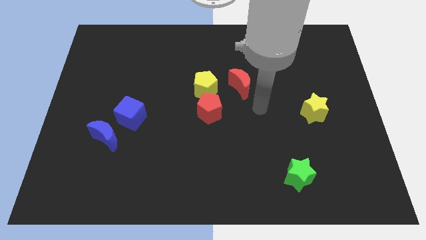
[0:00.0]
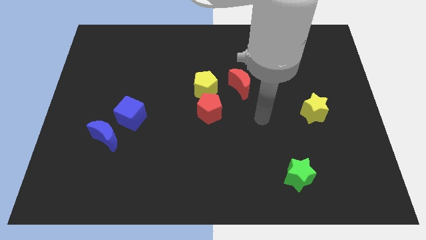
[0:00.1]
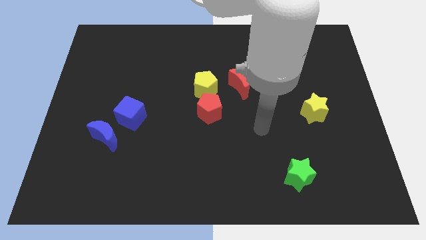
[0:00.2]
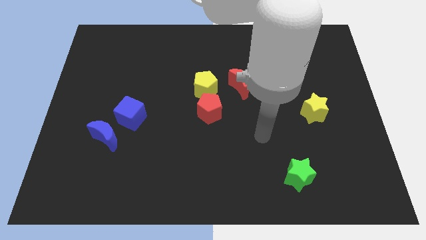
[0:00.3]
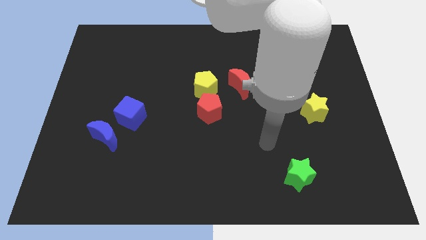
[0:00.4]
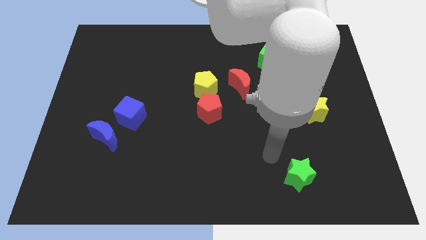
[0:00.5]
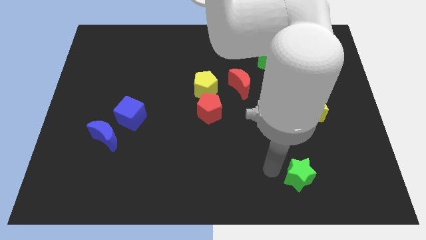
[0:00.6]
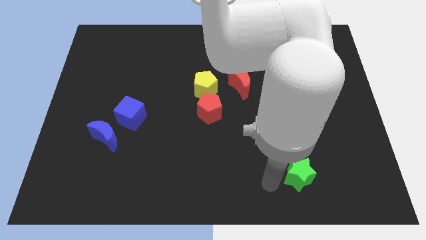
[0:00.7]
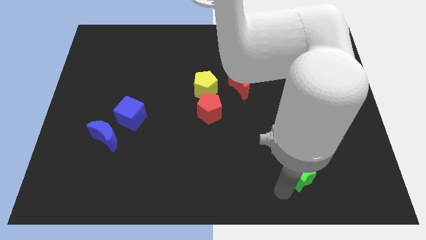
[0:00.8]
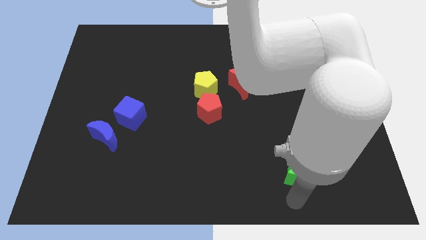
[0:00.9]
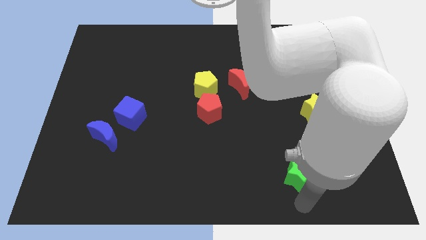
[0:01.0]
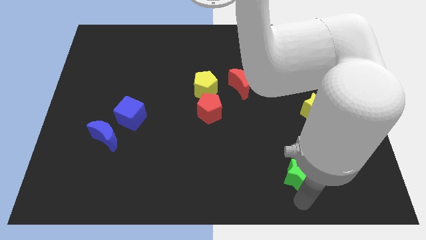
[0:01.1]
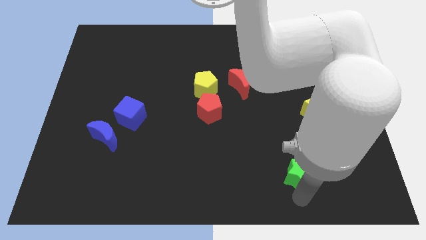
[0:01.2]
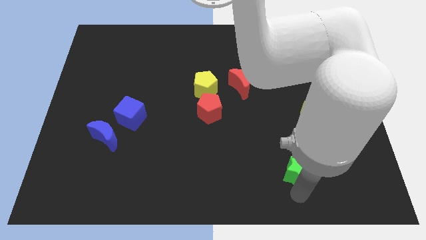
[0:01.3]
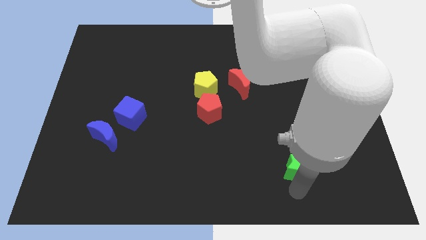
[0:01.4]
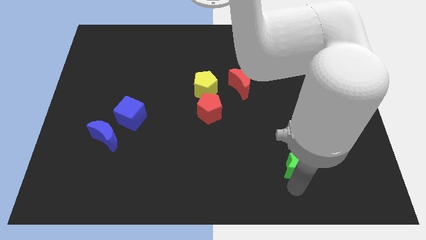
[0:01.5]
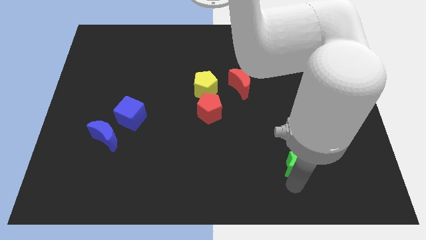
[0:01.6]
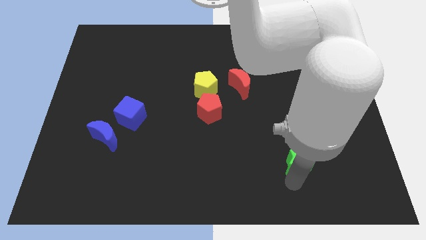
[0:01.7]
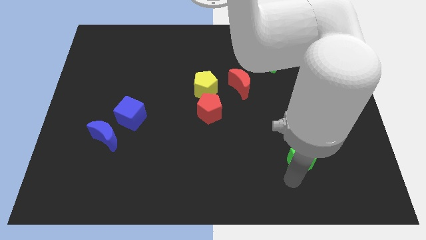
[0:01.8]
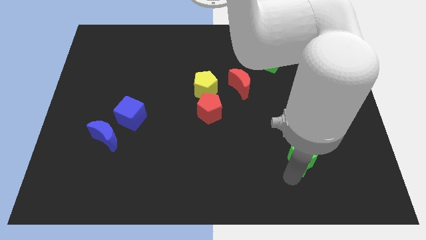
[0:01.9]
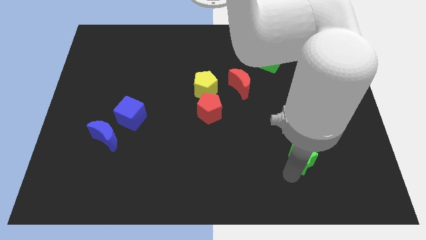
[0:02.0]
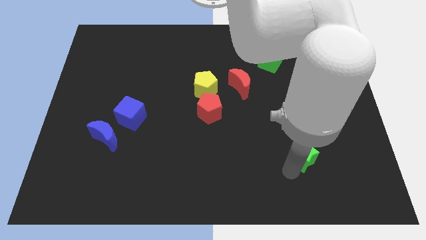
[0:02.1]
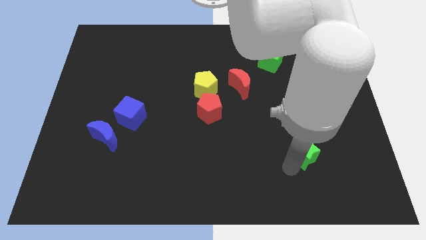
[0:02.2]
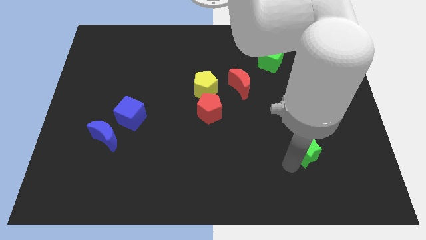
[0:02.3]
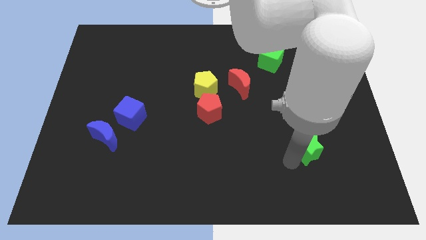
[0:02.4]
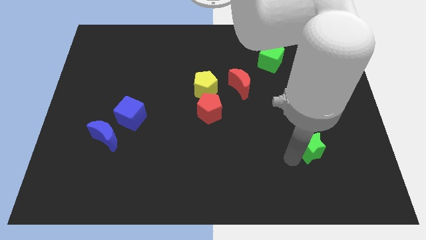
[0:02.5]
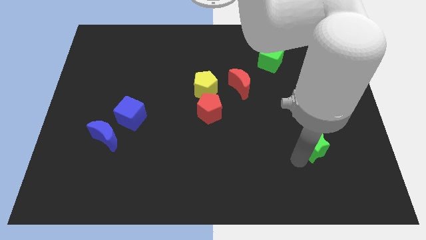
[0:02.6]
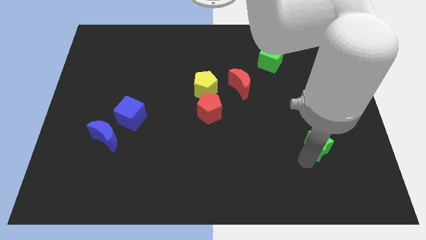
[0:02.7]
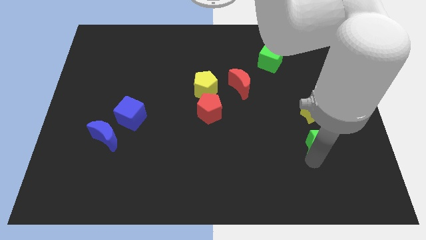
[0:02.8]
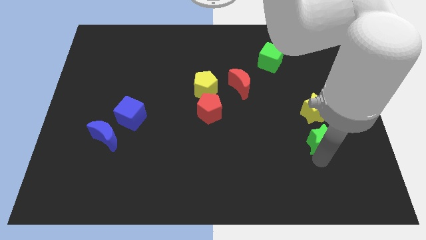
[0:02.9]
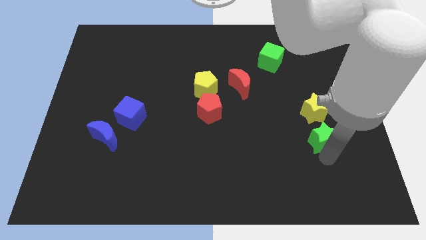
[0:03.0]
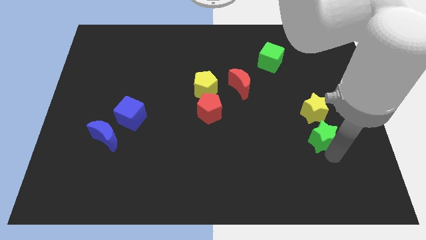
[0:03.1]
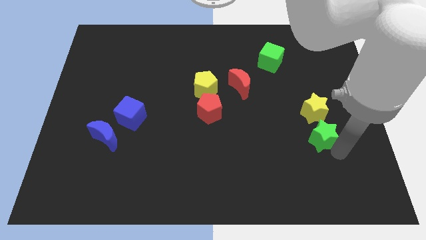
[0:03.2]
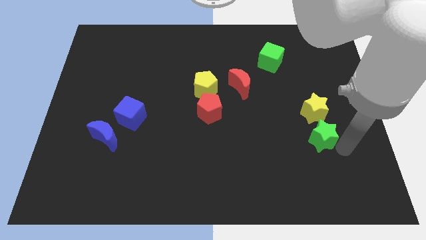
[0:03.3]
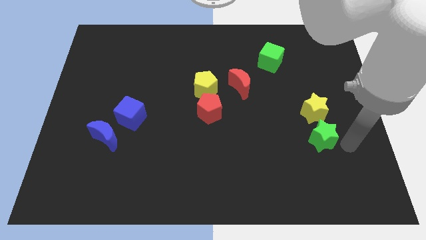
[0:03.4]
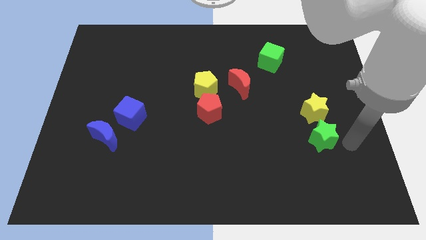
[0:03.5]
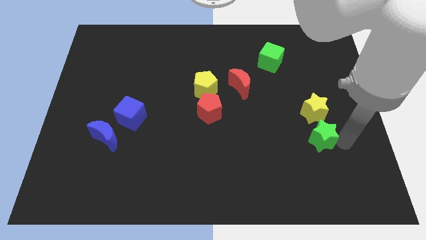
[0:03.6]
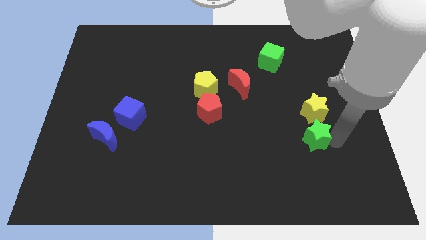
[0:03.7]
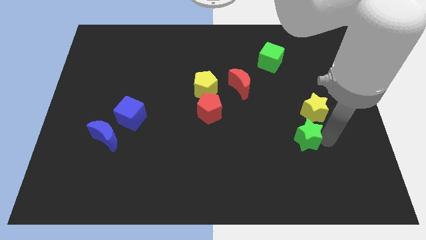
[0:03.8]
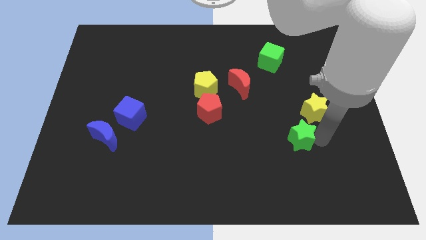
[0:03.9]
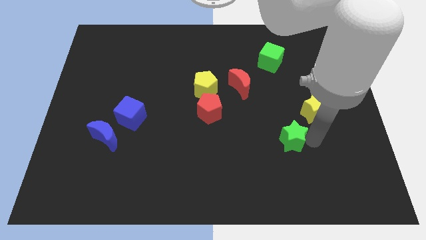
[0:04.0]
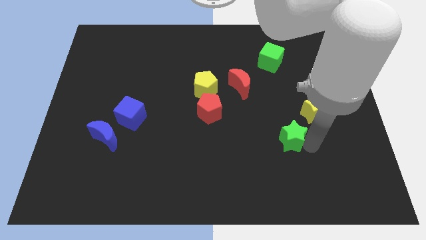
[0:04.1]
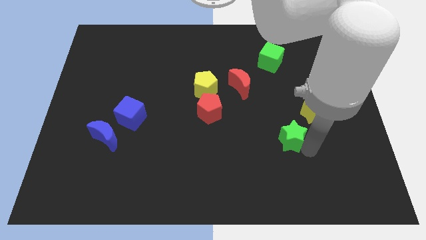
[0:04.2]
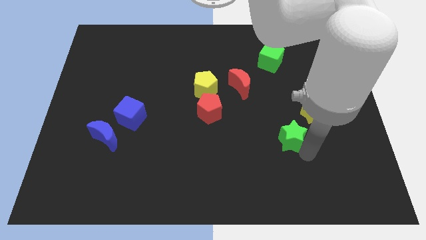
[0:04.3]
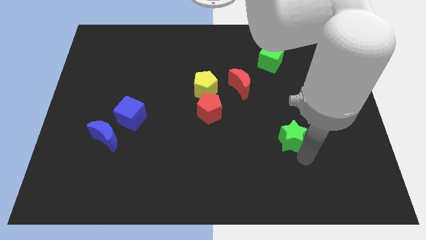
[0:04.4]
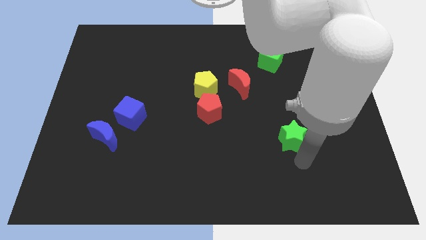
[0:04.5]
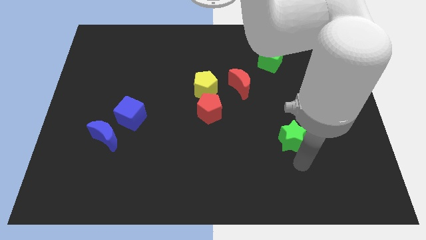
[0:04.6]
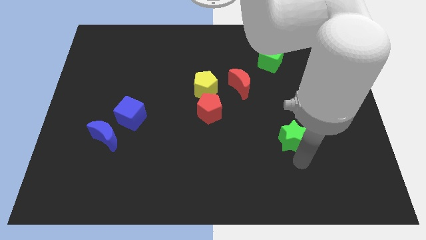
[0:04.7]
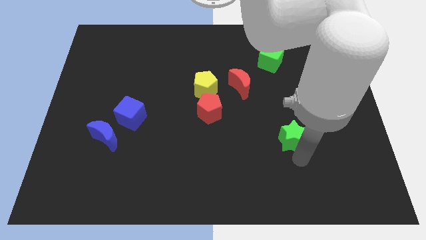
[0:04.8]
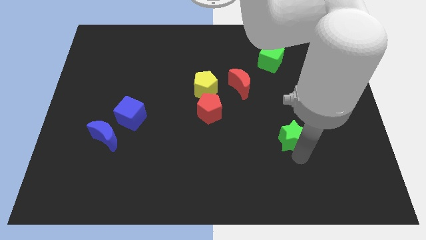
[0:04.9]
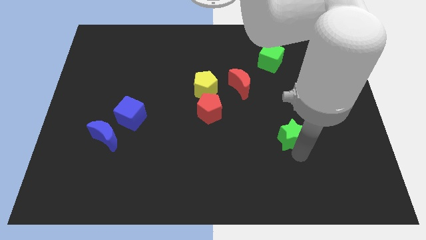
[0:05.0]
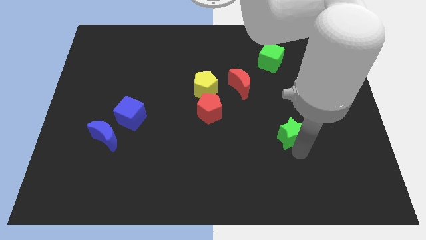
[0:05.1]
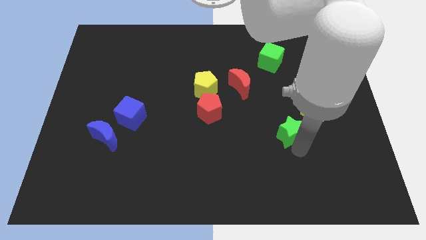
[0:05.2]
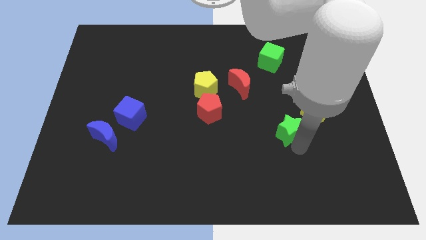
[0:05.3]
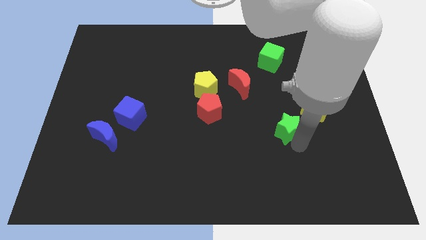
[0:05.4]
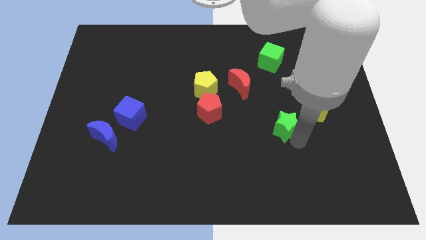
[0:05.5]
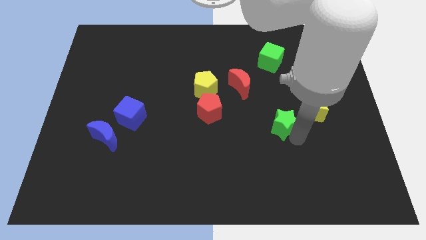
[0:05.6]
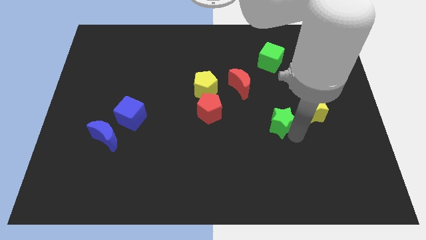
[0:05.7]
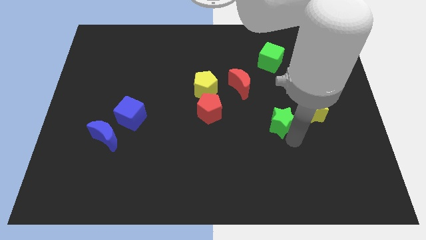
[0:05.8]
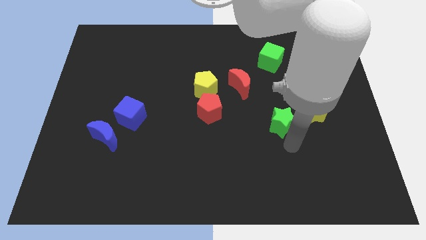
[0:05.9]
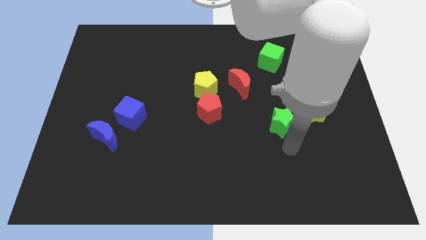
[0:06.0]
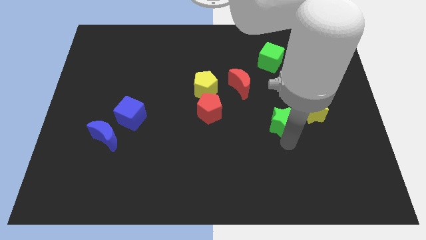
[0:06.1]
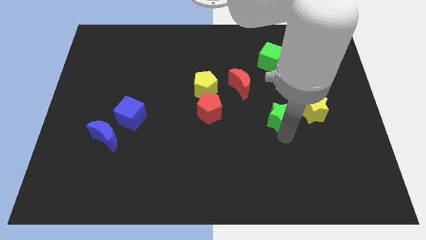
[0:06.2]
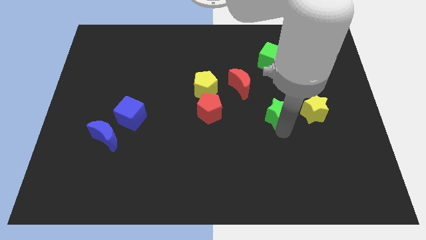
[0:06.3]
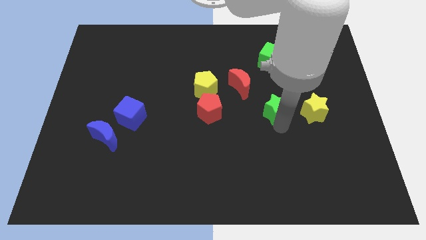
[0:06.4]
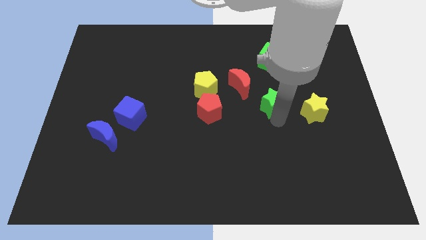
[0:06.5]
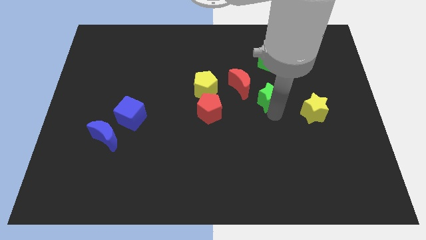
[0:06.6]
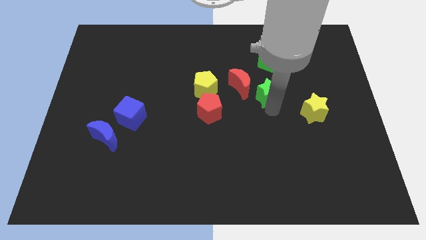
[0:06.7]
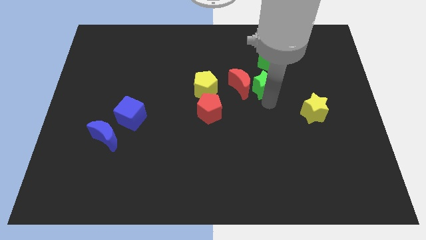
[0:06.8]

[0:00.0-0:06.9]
move the green star to the top right of the red moon

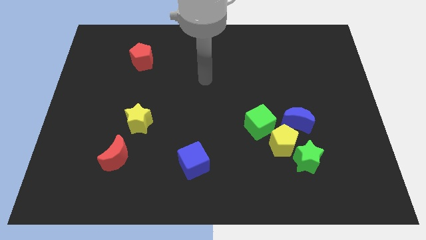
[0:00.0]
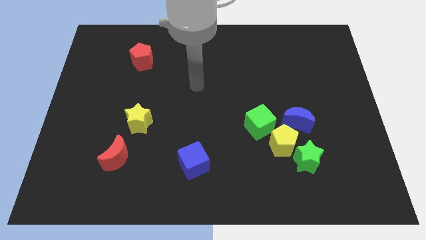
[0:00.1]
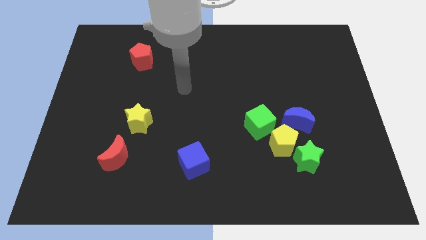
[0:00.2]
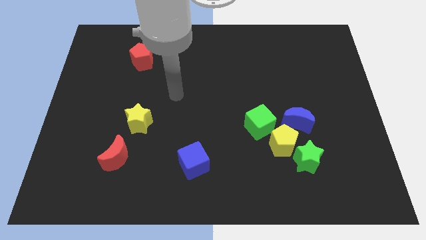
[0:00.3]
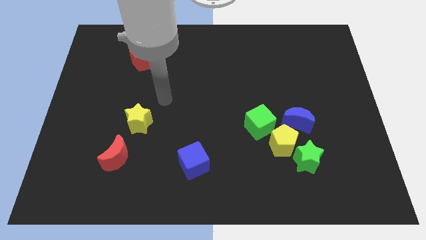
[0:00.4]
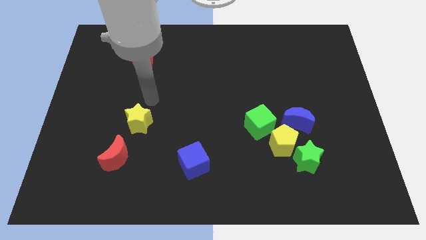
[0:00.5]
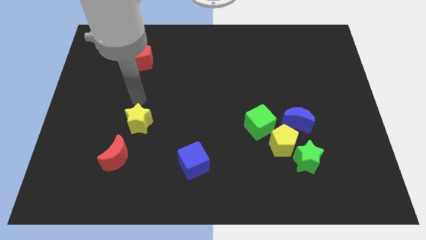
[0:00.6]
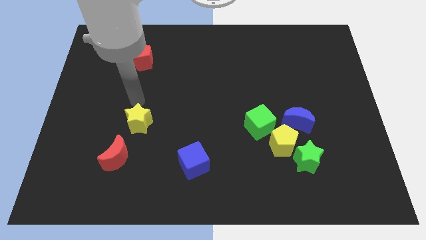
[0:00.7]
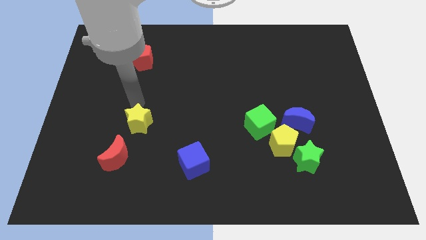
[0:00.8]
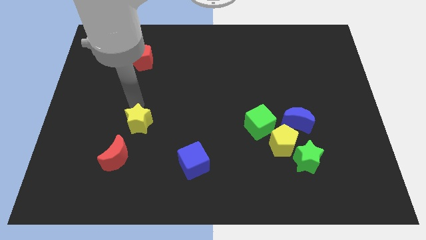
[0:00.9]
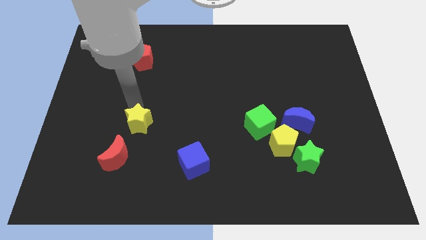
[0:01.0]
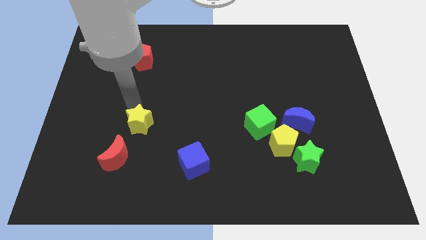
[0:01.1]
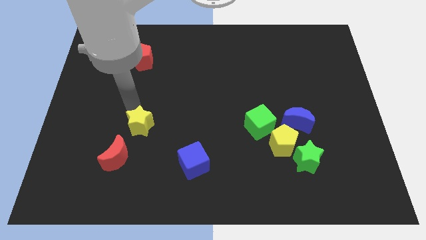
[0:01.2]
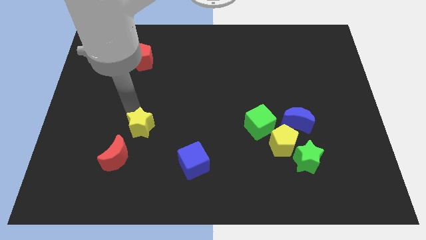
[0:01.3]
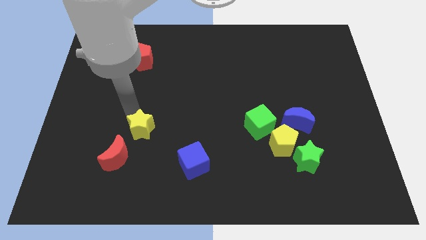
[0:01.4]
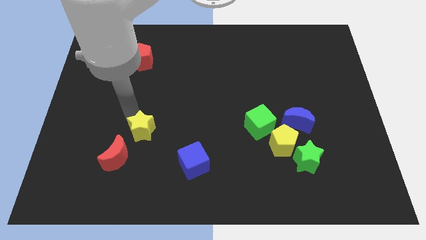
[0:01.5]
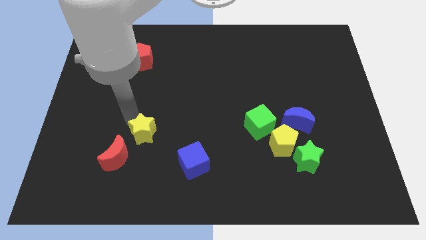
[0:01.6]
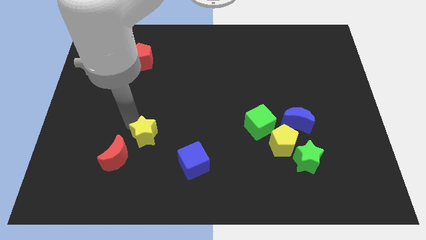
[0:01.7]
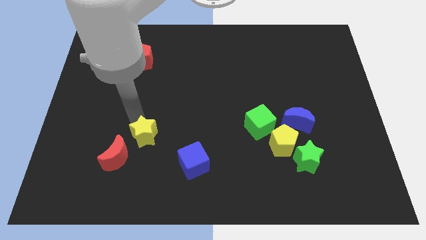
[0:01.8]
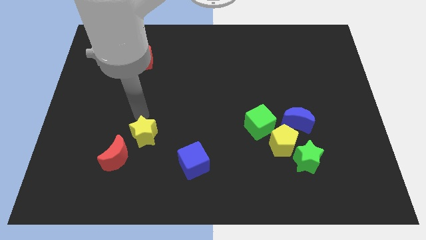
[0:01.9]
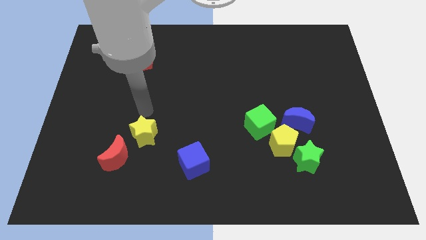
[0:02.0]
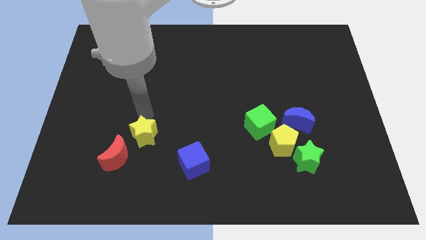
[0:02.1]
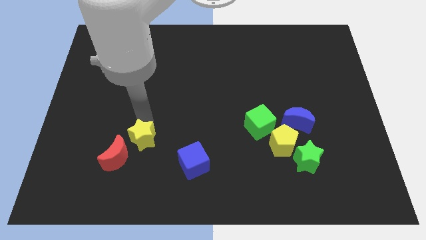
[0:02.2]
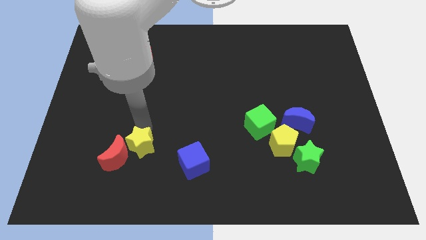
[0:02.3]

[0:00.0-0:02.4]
move the yellow star just left of the blue cube
